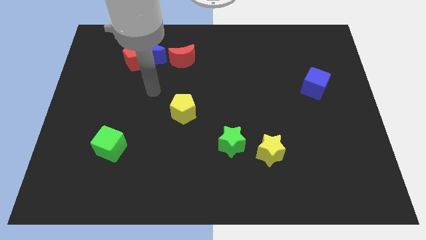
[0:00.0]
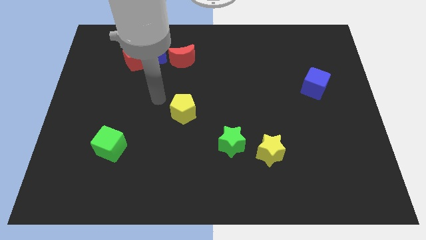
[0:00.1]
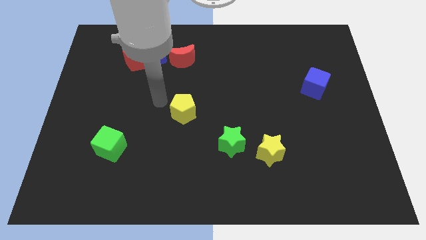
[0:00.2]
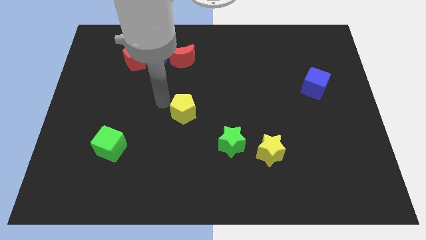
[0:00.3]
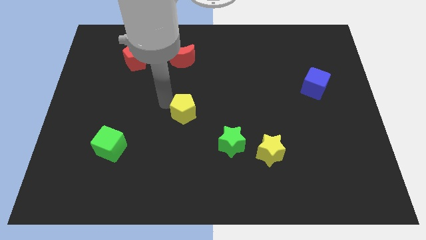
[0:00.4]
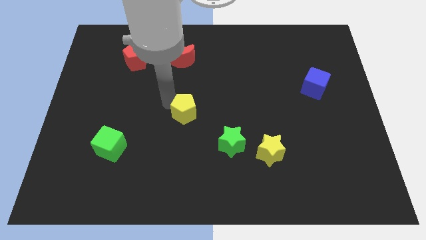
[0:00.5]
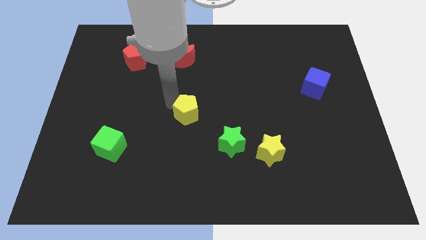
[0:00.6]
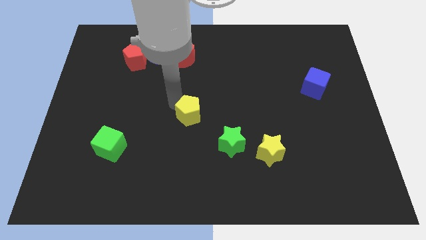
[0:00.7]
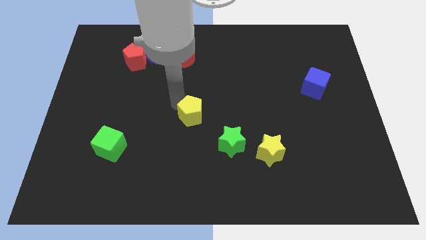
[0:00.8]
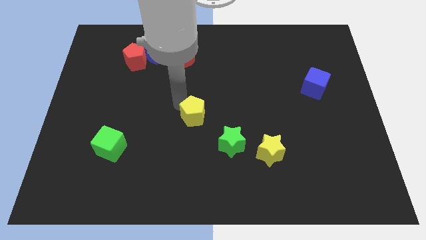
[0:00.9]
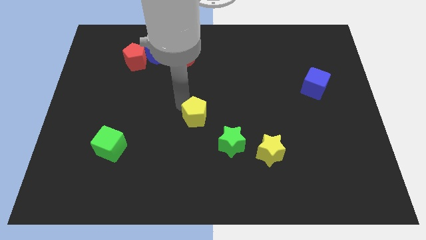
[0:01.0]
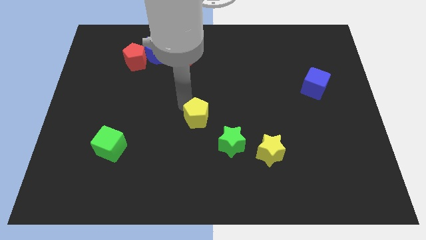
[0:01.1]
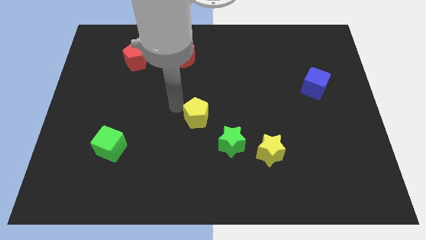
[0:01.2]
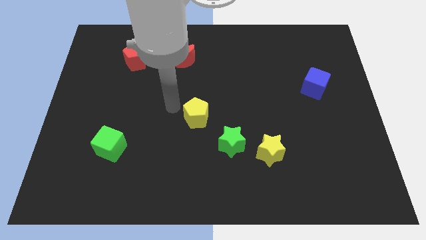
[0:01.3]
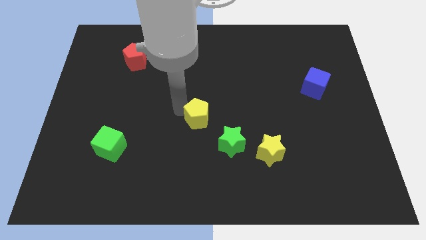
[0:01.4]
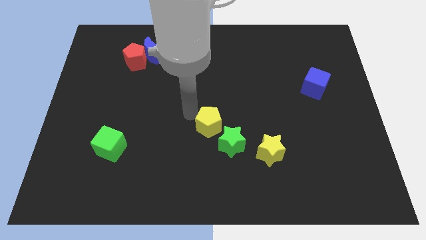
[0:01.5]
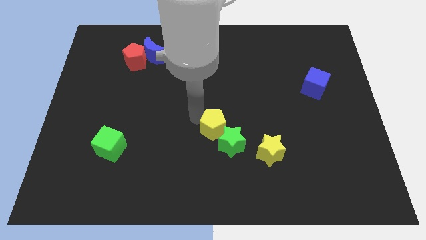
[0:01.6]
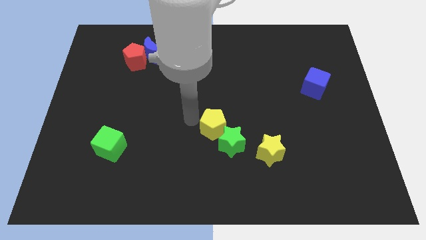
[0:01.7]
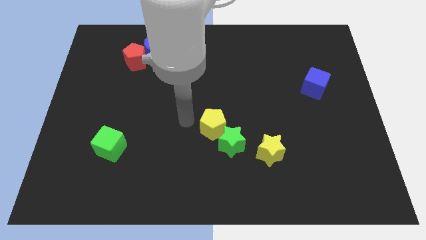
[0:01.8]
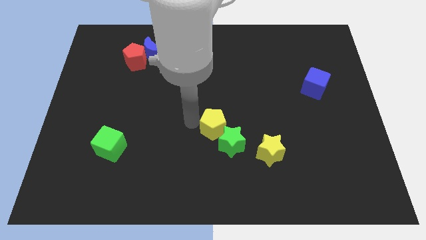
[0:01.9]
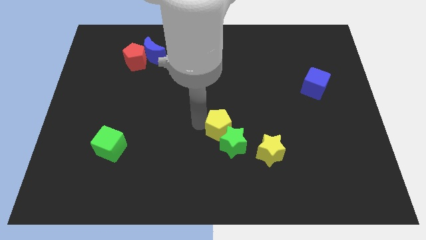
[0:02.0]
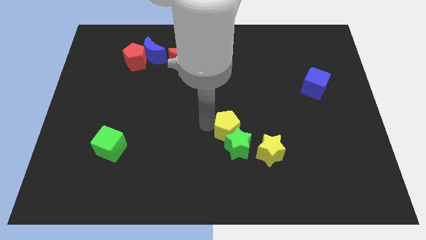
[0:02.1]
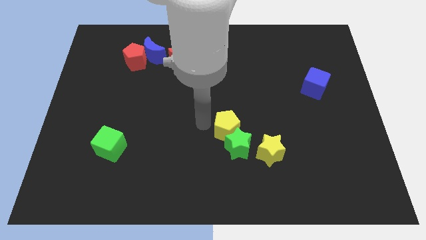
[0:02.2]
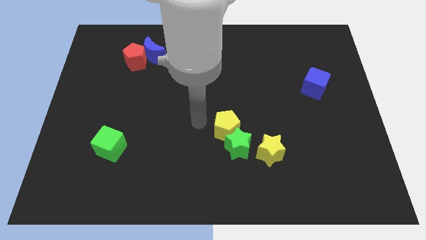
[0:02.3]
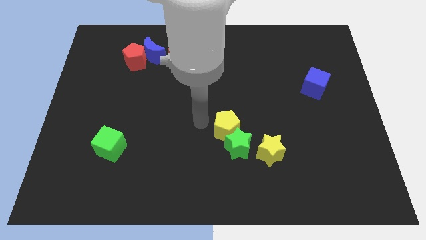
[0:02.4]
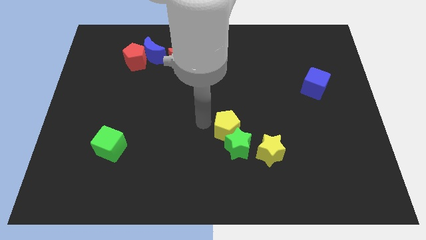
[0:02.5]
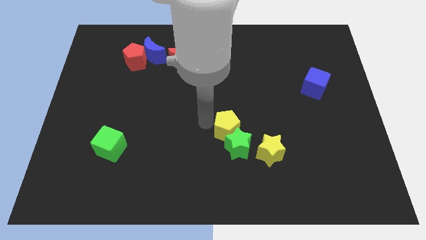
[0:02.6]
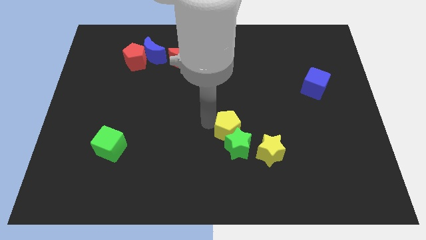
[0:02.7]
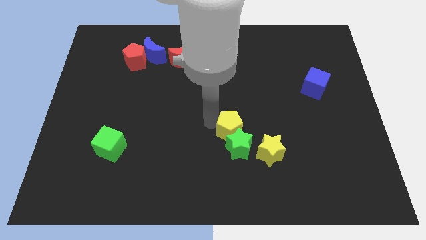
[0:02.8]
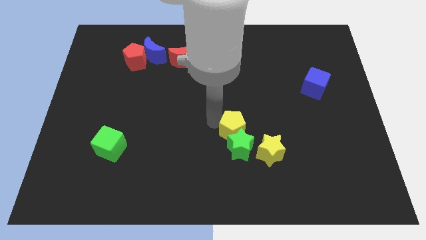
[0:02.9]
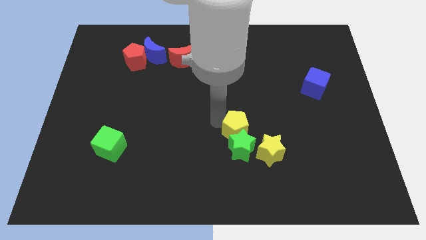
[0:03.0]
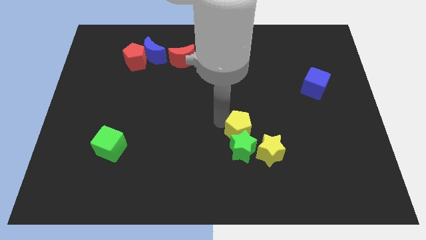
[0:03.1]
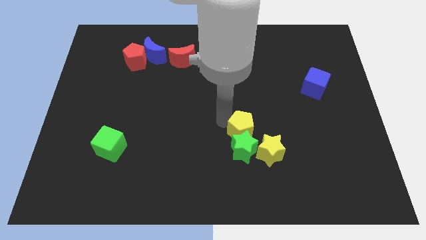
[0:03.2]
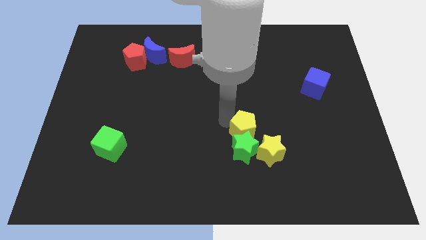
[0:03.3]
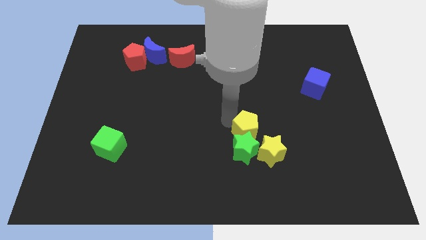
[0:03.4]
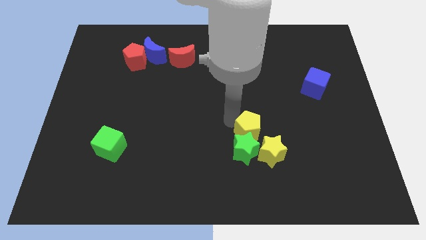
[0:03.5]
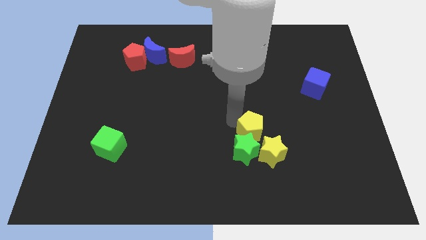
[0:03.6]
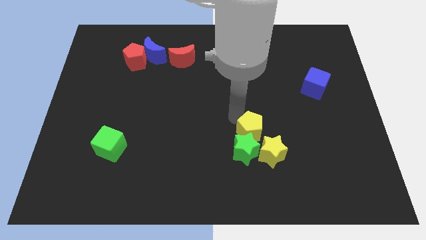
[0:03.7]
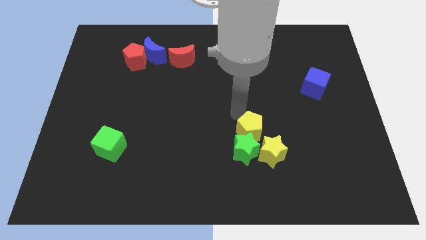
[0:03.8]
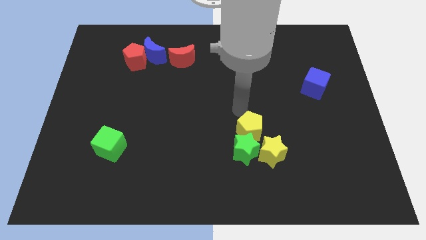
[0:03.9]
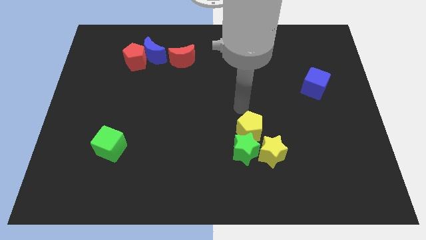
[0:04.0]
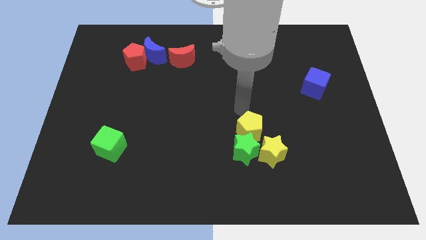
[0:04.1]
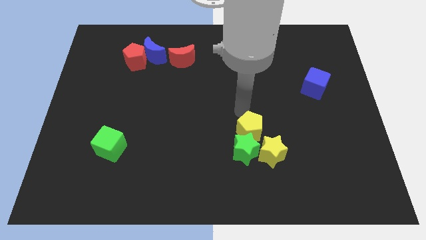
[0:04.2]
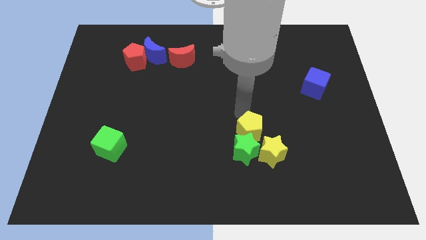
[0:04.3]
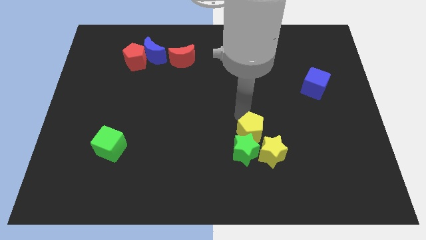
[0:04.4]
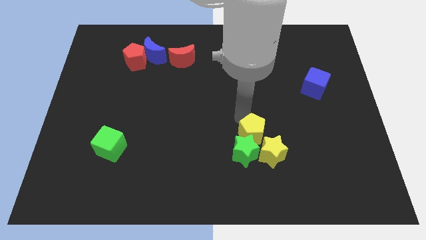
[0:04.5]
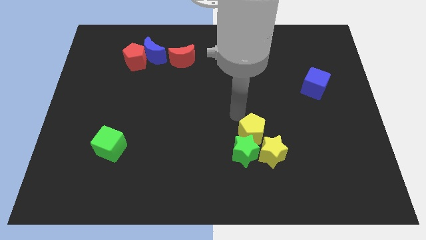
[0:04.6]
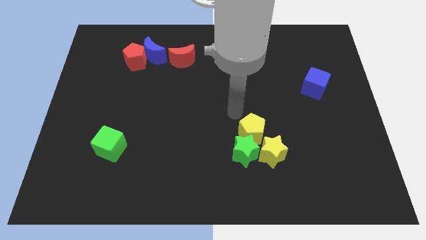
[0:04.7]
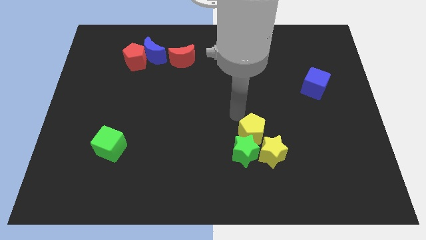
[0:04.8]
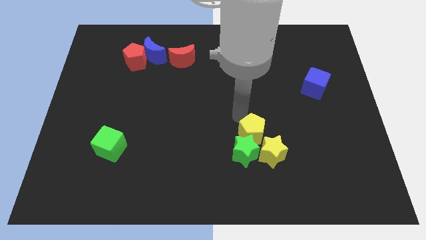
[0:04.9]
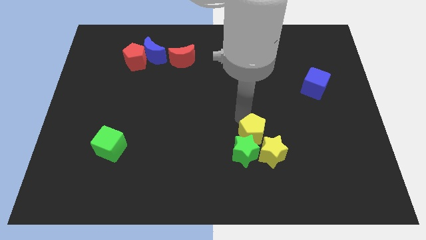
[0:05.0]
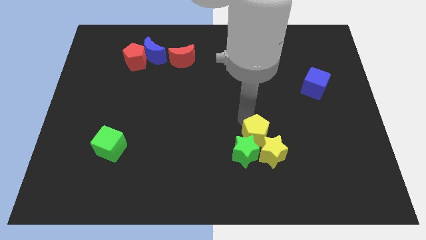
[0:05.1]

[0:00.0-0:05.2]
slide the yellow pentagon towards the yellow star

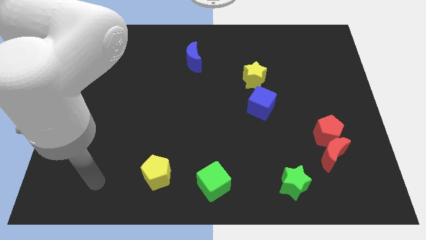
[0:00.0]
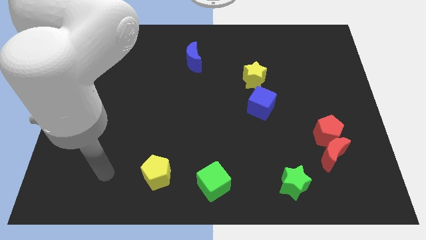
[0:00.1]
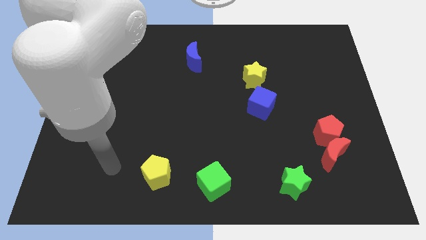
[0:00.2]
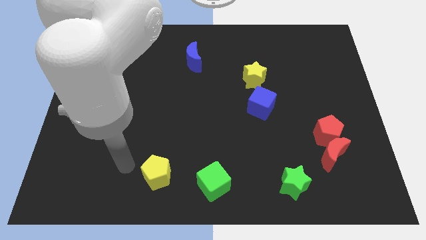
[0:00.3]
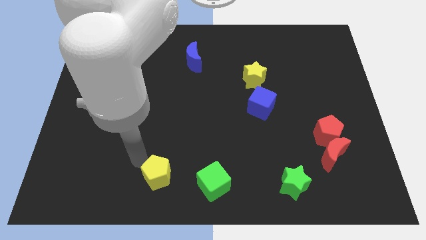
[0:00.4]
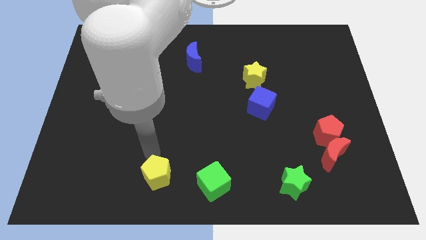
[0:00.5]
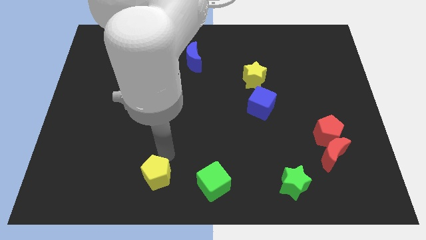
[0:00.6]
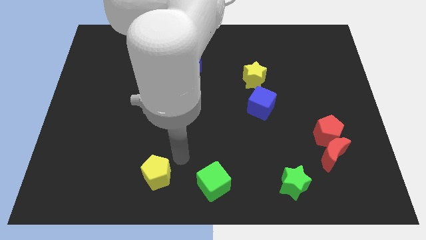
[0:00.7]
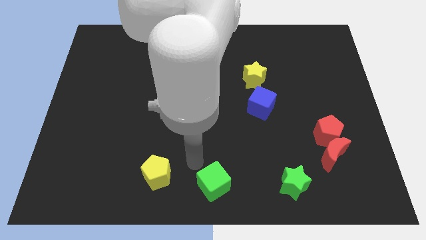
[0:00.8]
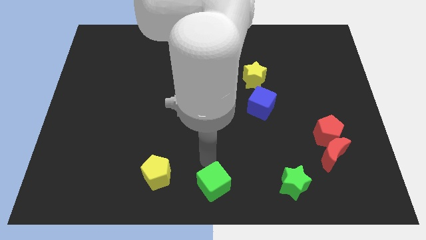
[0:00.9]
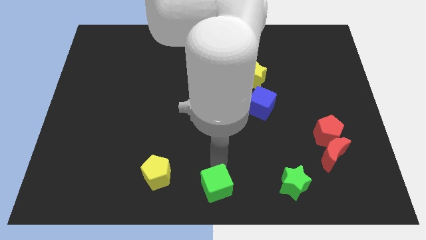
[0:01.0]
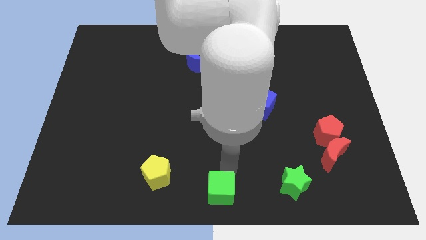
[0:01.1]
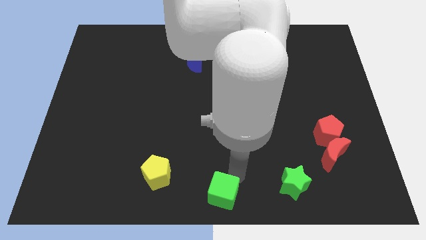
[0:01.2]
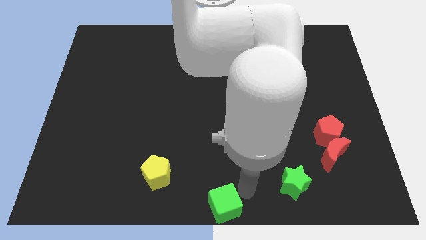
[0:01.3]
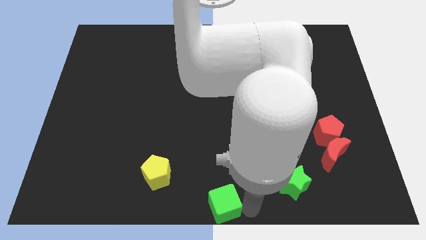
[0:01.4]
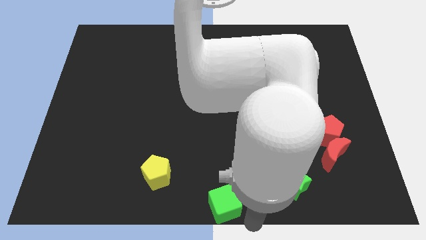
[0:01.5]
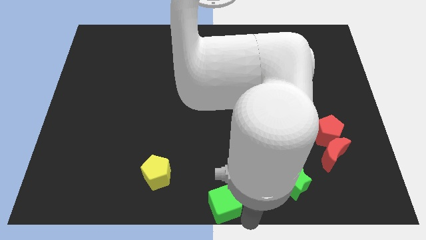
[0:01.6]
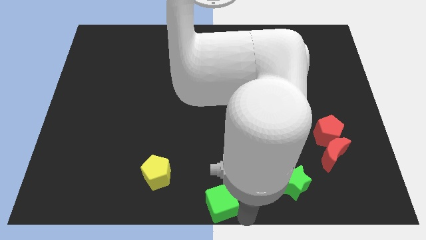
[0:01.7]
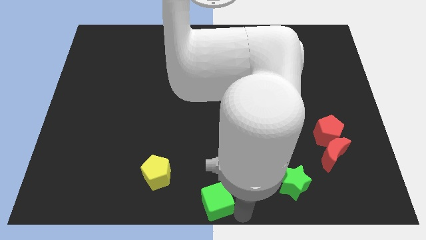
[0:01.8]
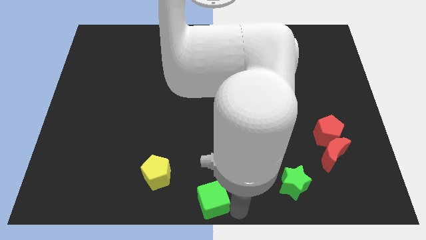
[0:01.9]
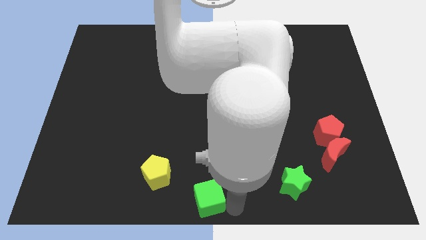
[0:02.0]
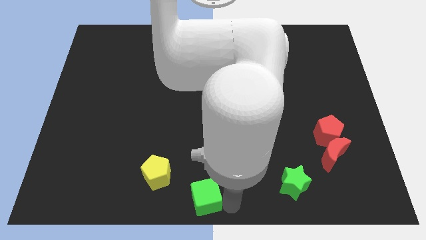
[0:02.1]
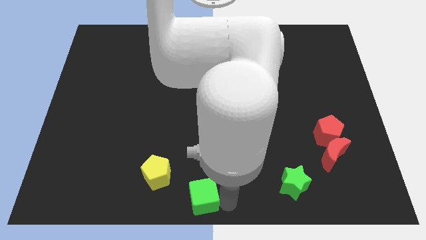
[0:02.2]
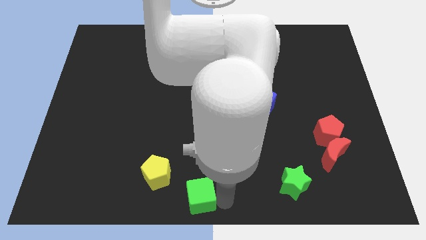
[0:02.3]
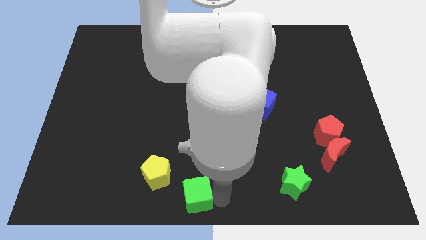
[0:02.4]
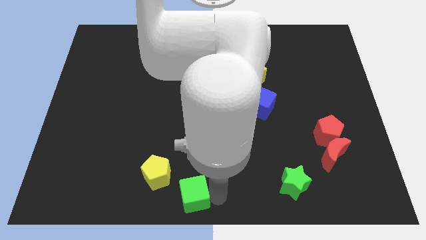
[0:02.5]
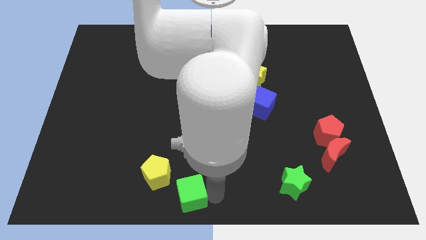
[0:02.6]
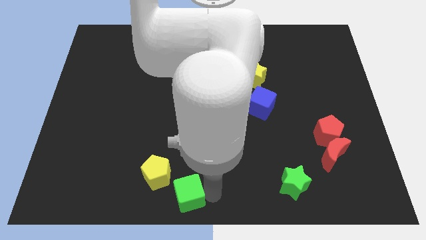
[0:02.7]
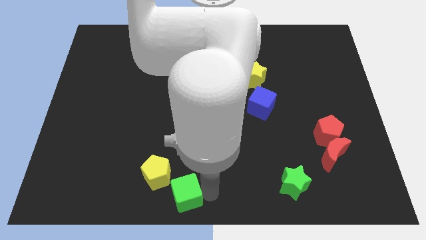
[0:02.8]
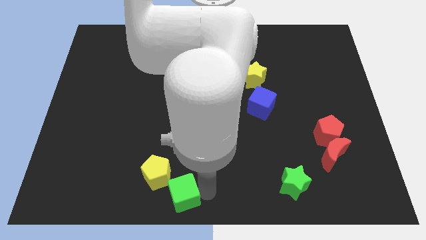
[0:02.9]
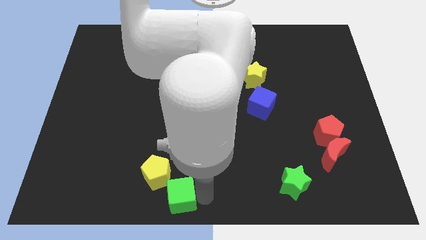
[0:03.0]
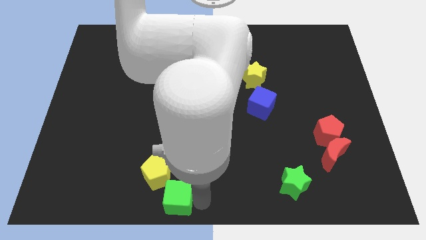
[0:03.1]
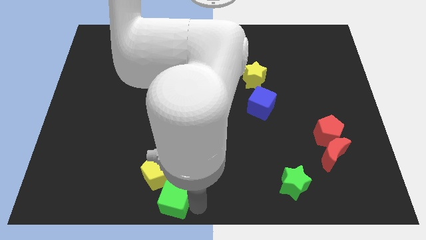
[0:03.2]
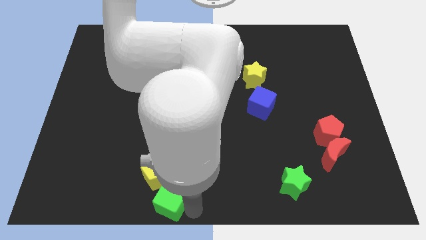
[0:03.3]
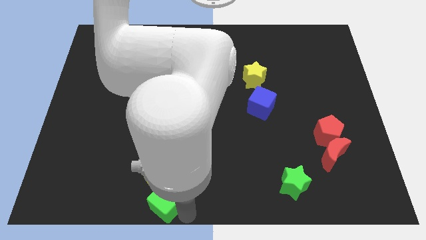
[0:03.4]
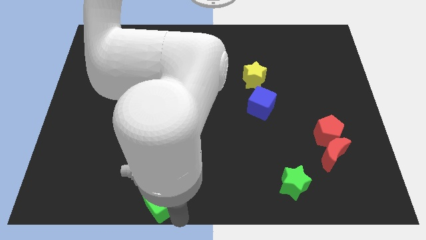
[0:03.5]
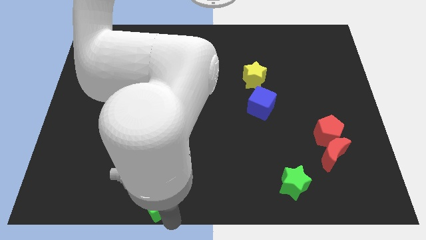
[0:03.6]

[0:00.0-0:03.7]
move the green cube towards the yellow pentagon
